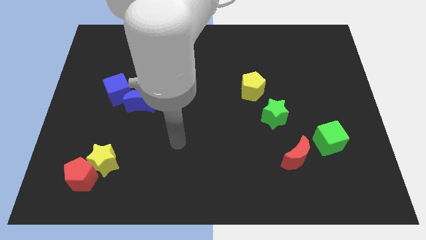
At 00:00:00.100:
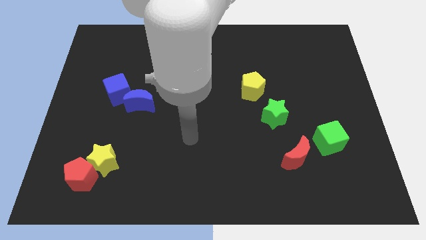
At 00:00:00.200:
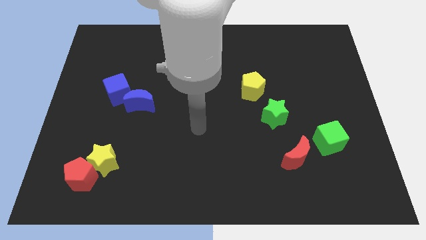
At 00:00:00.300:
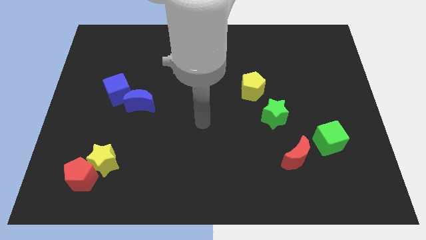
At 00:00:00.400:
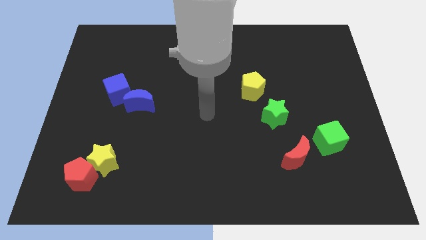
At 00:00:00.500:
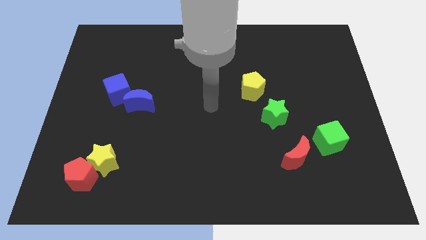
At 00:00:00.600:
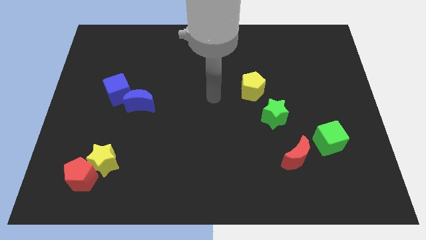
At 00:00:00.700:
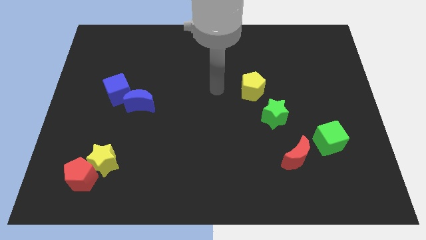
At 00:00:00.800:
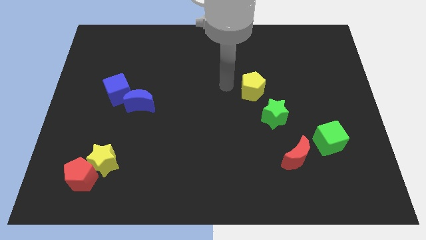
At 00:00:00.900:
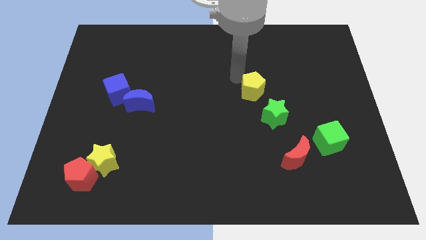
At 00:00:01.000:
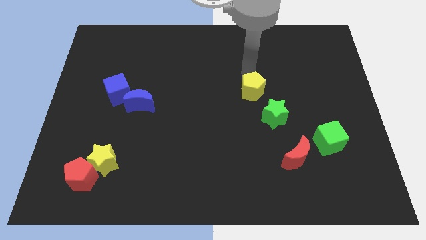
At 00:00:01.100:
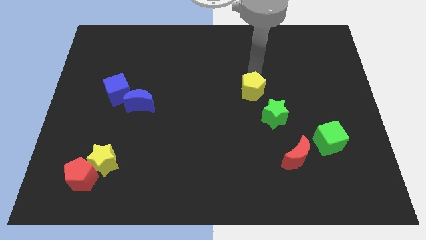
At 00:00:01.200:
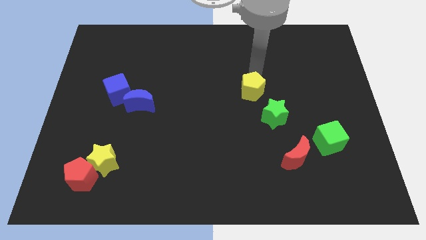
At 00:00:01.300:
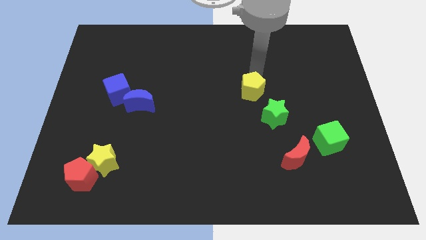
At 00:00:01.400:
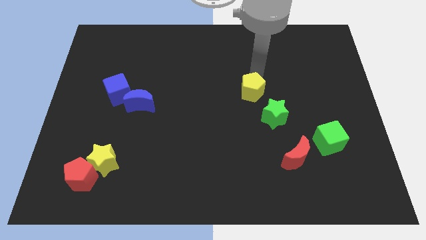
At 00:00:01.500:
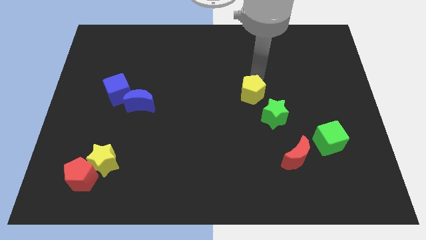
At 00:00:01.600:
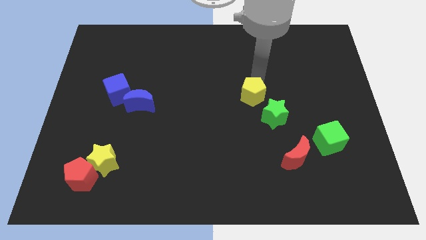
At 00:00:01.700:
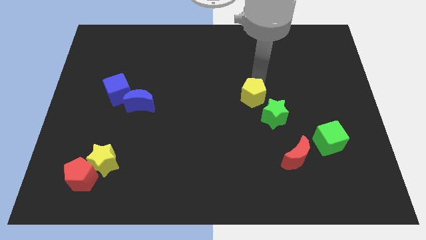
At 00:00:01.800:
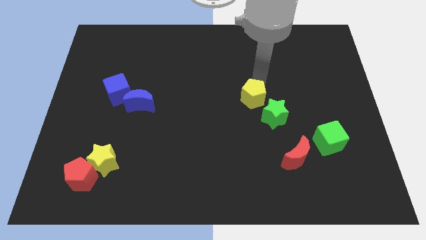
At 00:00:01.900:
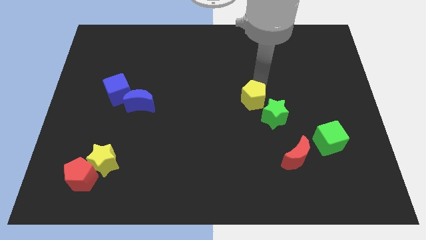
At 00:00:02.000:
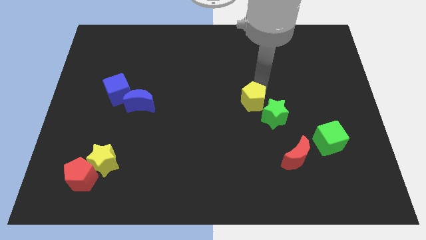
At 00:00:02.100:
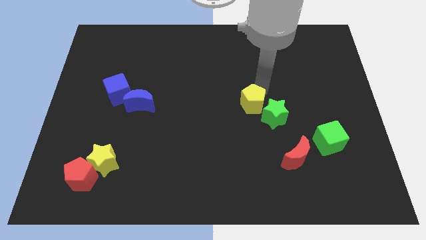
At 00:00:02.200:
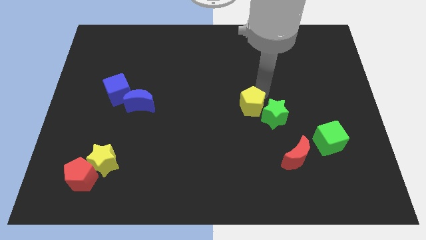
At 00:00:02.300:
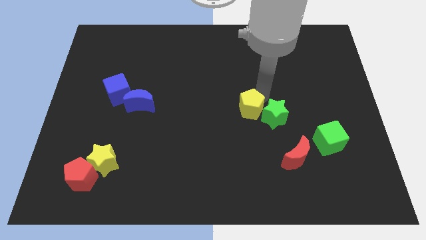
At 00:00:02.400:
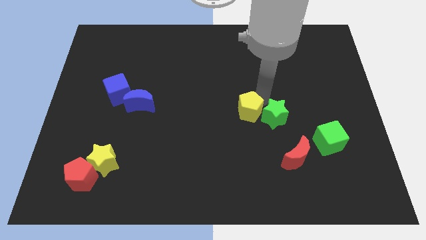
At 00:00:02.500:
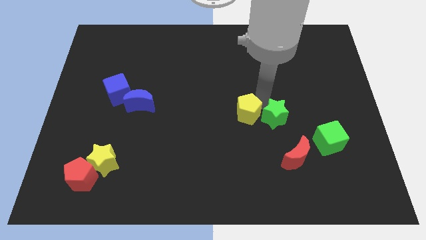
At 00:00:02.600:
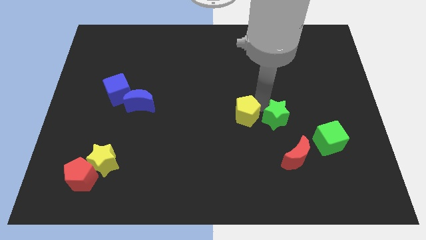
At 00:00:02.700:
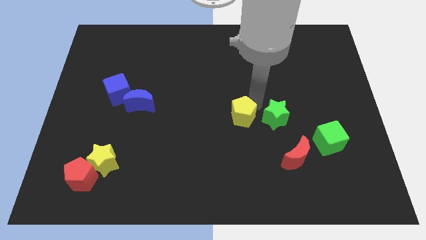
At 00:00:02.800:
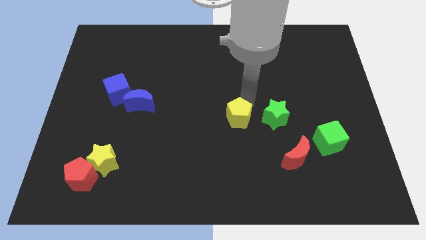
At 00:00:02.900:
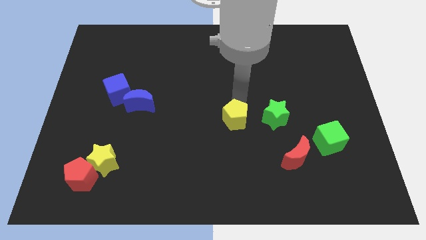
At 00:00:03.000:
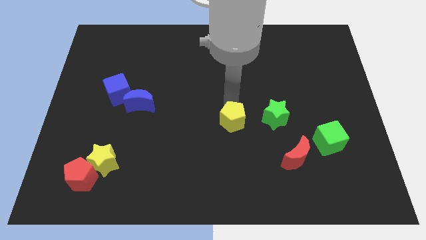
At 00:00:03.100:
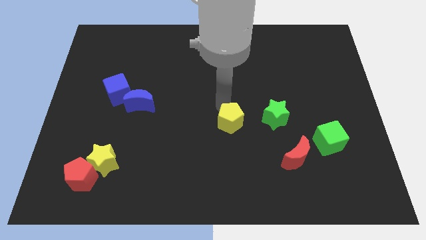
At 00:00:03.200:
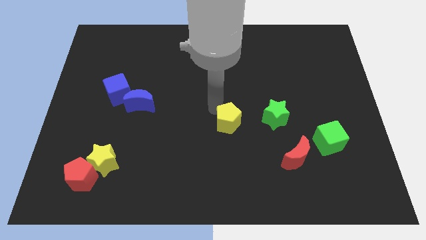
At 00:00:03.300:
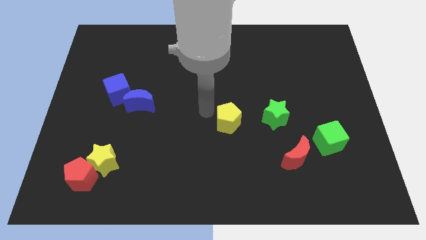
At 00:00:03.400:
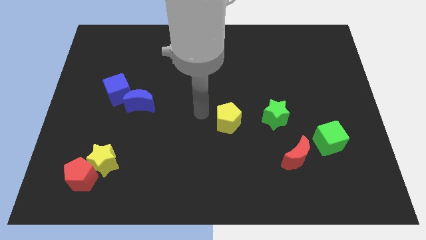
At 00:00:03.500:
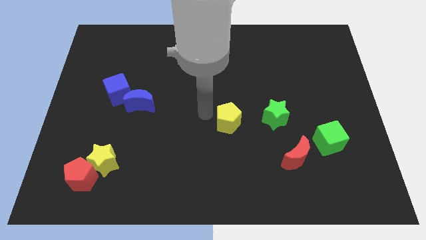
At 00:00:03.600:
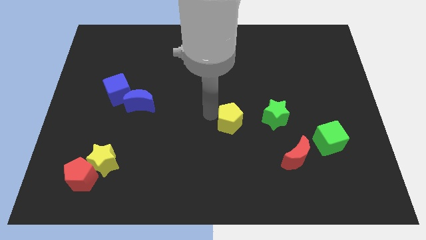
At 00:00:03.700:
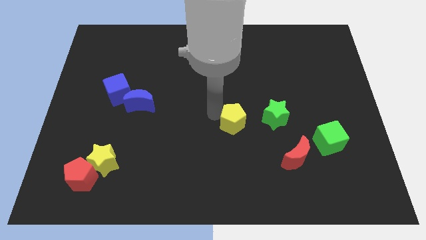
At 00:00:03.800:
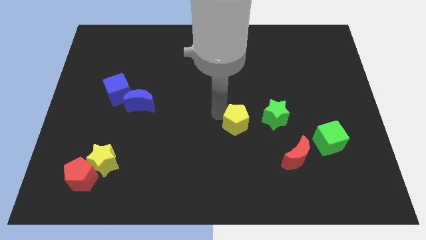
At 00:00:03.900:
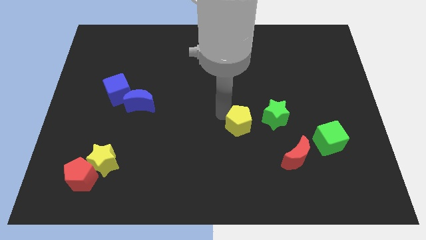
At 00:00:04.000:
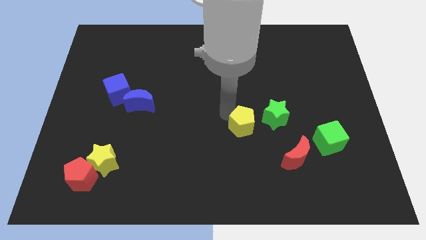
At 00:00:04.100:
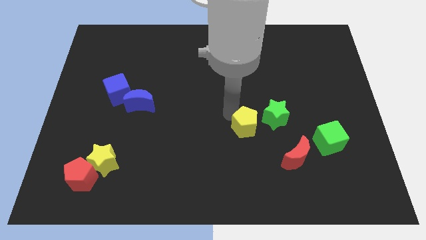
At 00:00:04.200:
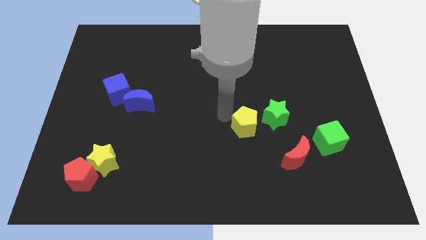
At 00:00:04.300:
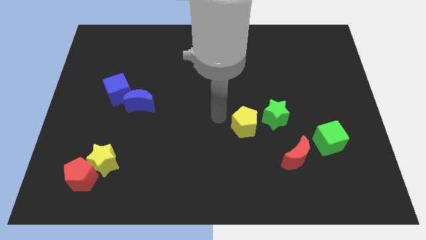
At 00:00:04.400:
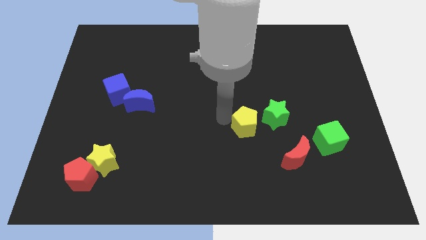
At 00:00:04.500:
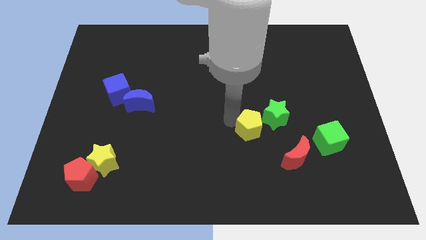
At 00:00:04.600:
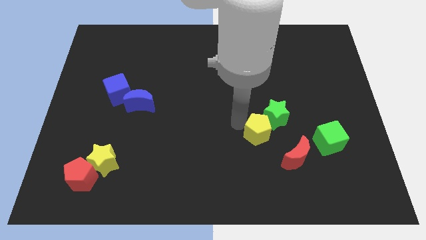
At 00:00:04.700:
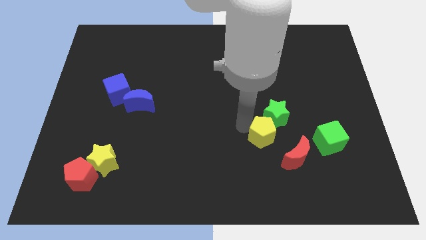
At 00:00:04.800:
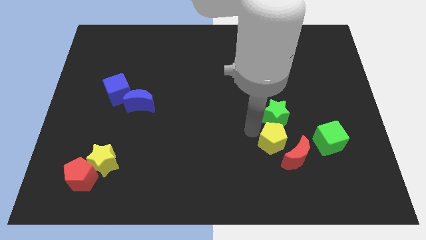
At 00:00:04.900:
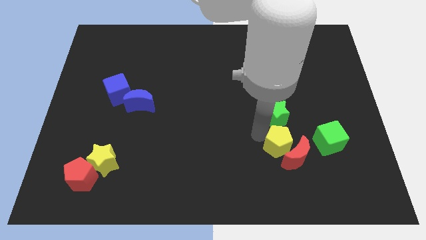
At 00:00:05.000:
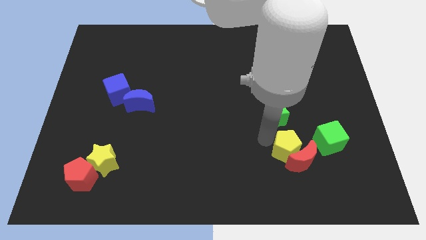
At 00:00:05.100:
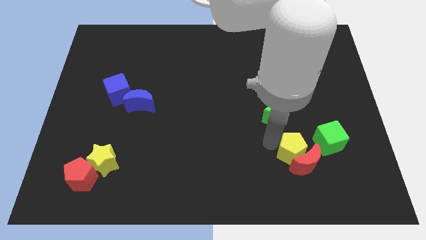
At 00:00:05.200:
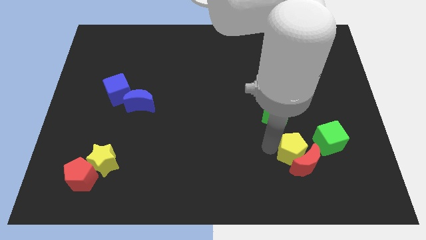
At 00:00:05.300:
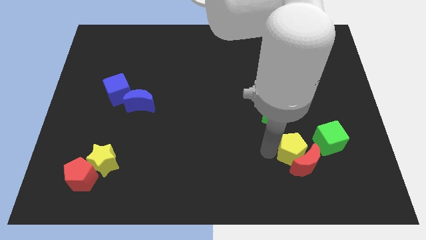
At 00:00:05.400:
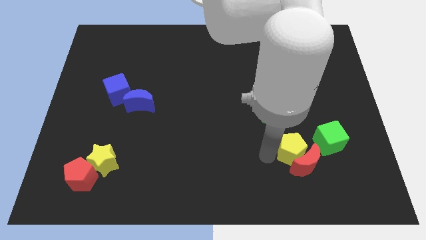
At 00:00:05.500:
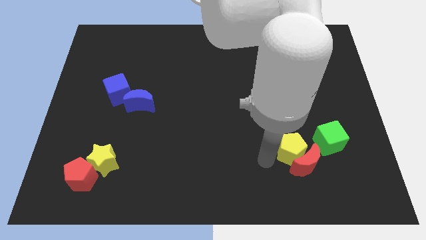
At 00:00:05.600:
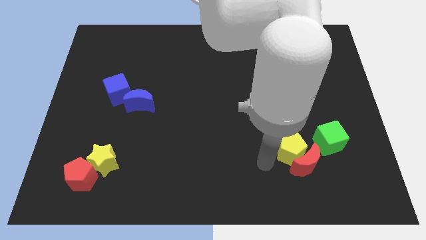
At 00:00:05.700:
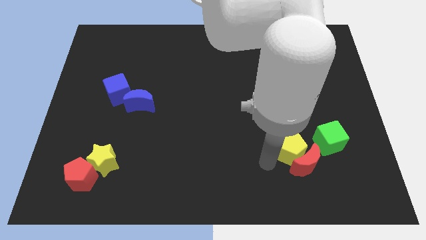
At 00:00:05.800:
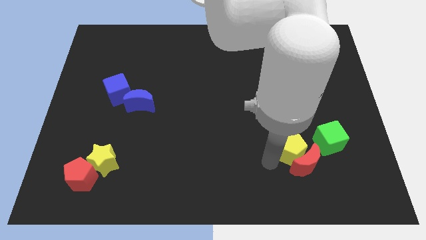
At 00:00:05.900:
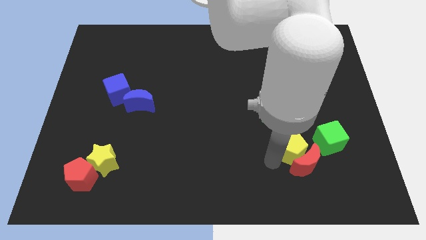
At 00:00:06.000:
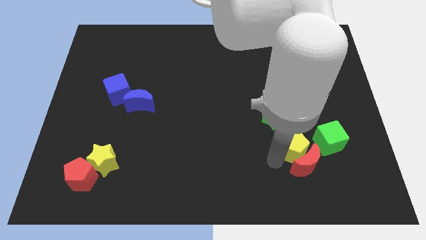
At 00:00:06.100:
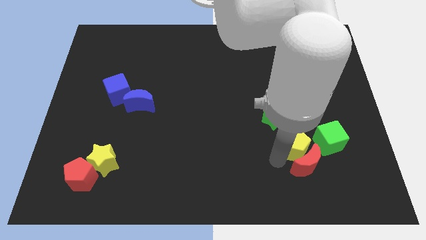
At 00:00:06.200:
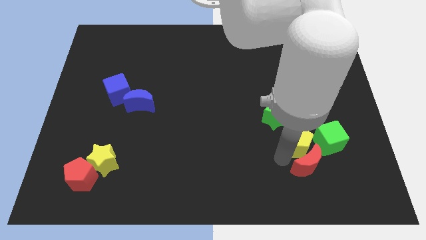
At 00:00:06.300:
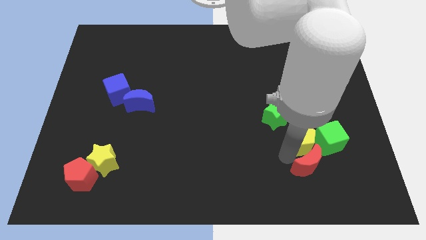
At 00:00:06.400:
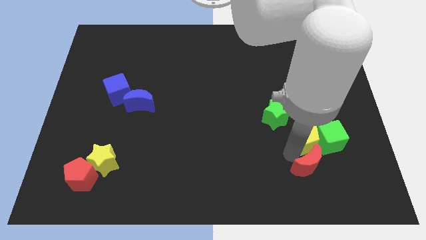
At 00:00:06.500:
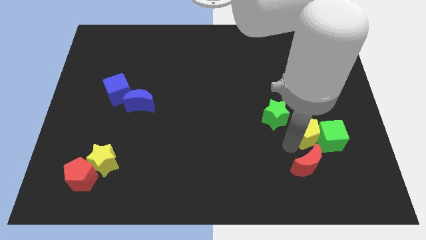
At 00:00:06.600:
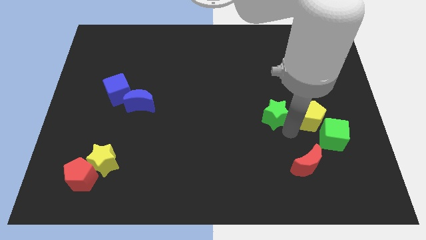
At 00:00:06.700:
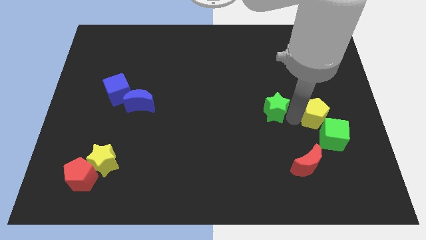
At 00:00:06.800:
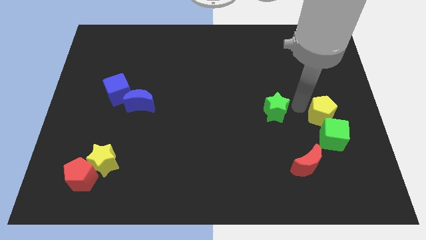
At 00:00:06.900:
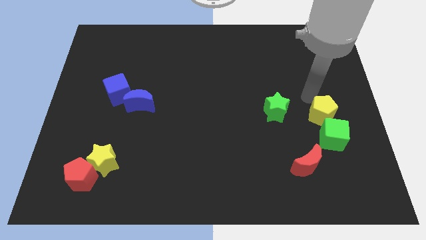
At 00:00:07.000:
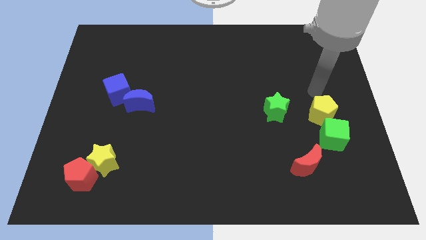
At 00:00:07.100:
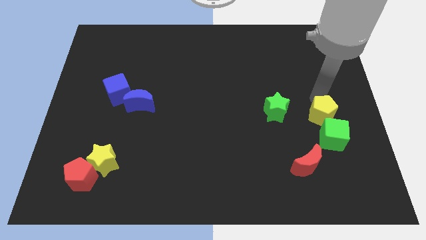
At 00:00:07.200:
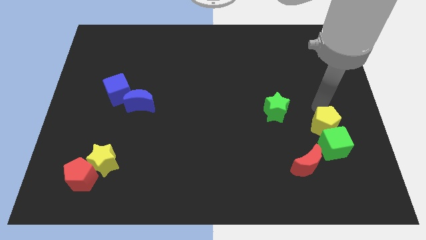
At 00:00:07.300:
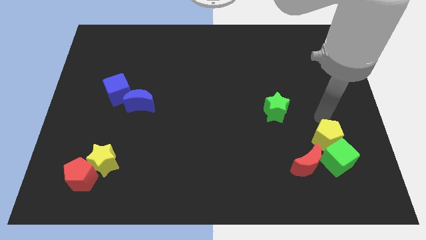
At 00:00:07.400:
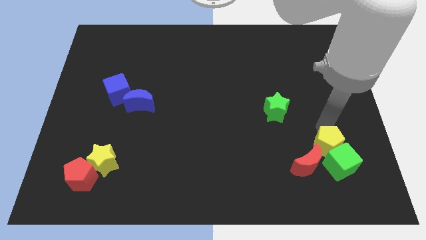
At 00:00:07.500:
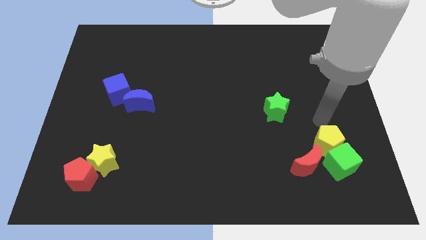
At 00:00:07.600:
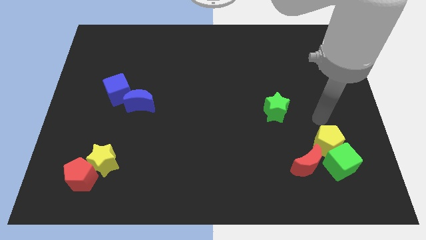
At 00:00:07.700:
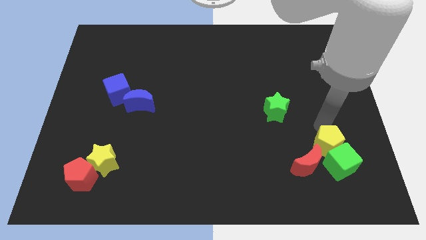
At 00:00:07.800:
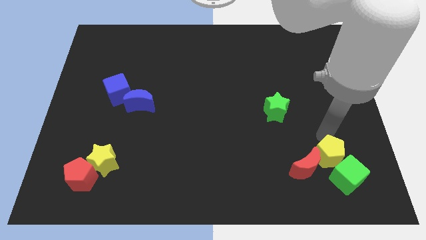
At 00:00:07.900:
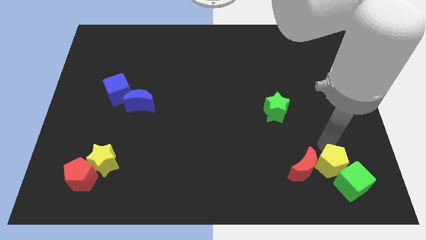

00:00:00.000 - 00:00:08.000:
push the yellow pentagon diagonally down and to the right of the red moon
